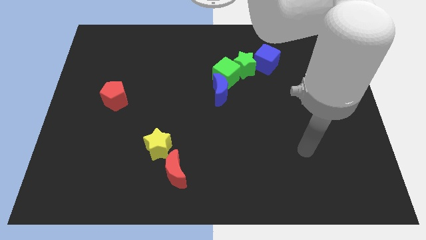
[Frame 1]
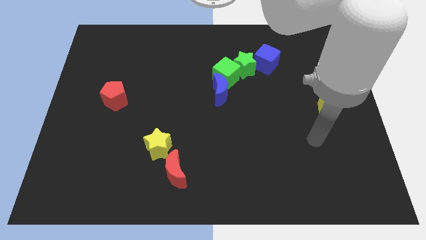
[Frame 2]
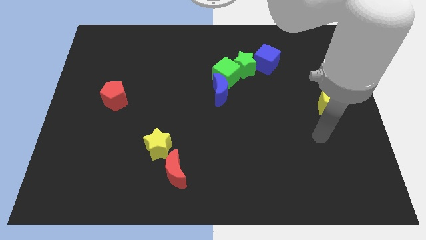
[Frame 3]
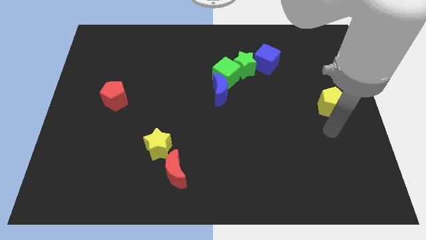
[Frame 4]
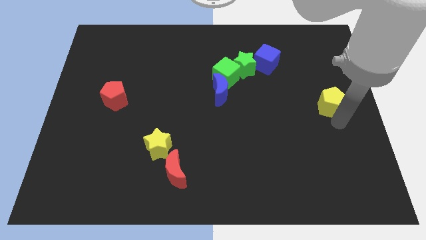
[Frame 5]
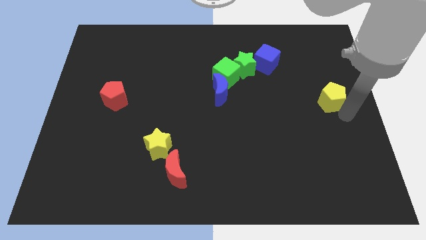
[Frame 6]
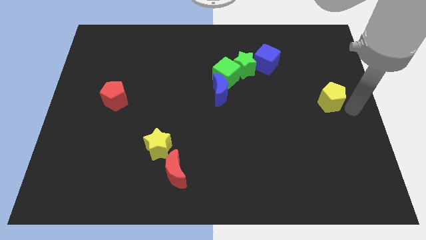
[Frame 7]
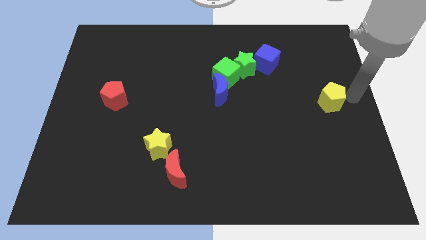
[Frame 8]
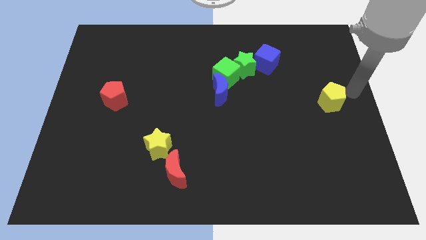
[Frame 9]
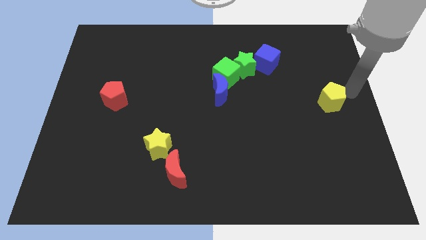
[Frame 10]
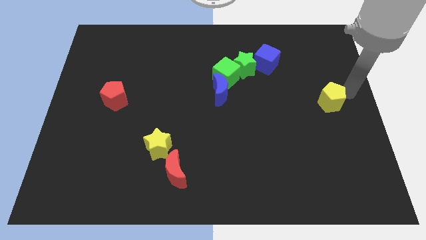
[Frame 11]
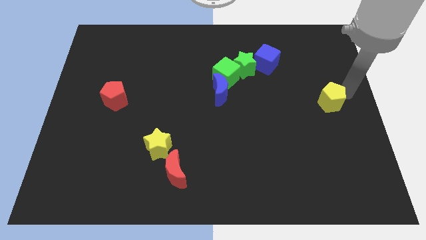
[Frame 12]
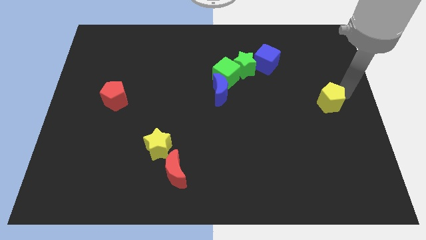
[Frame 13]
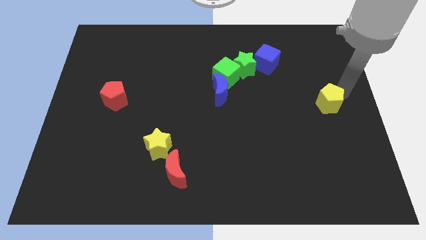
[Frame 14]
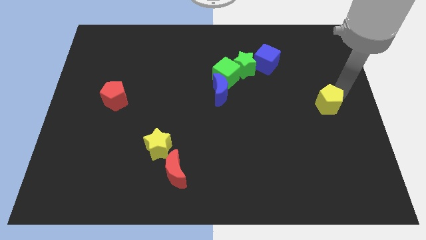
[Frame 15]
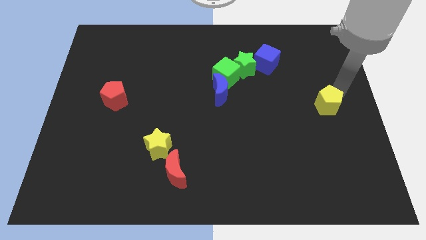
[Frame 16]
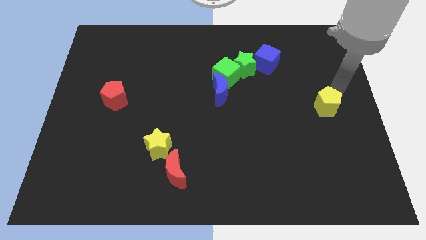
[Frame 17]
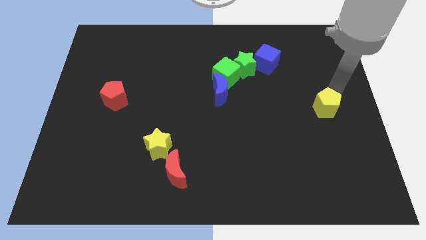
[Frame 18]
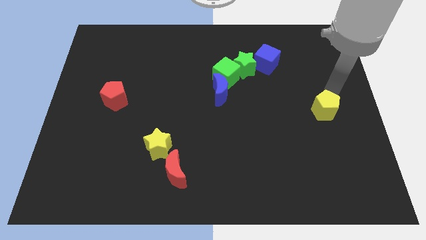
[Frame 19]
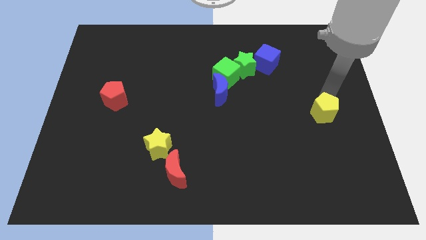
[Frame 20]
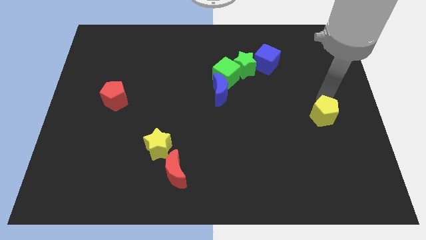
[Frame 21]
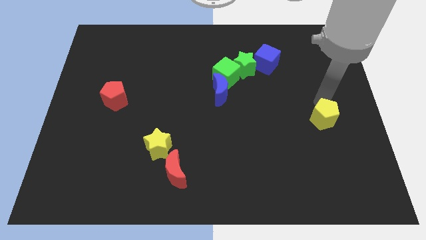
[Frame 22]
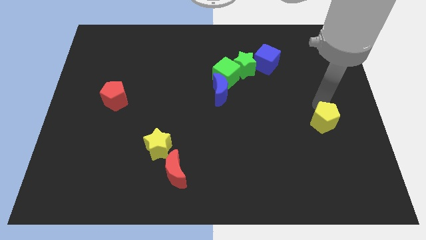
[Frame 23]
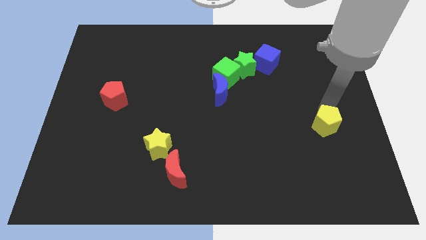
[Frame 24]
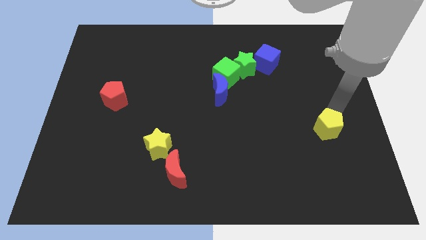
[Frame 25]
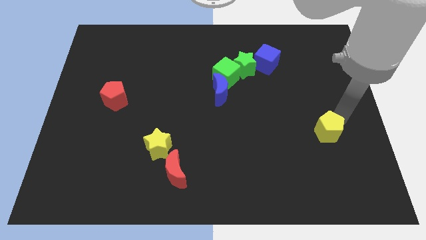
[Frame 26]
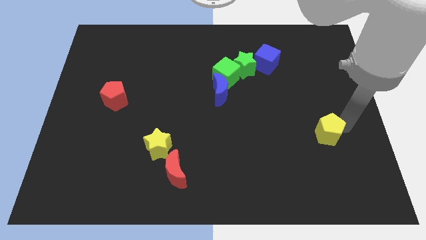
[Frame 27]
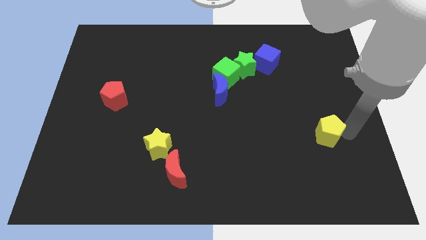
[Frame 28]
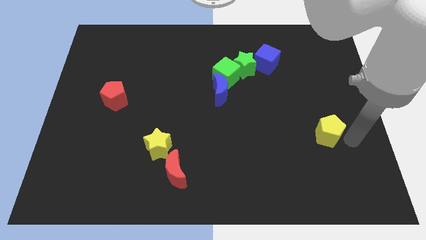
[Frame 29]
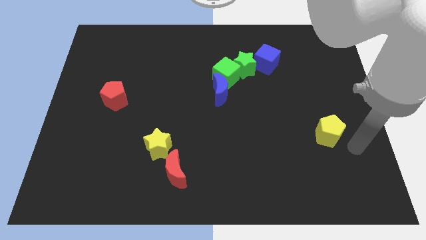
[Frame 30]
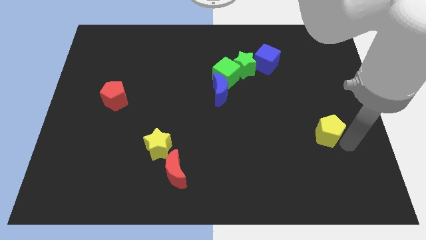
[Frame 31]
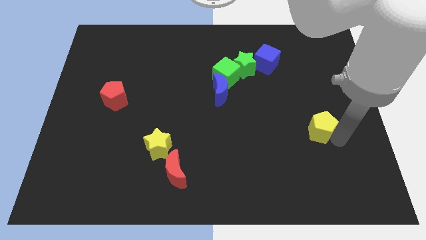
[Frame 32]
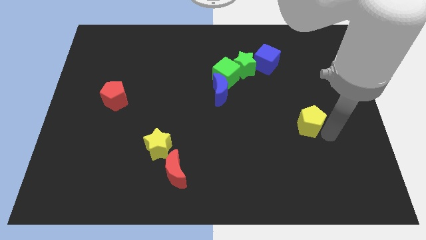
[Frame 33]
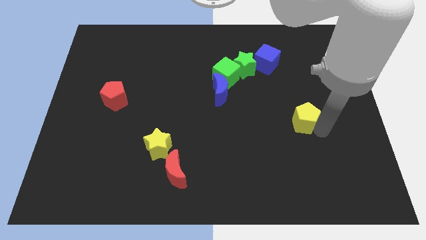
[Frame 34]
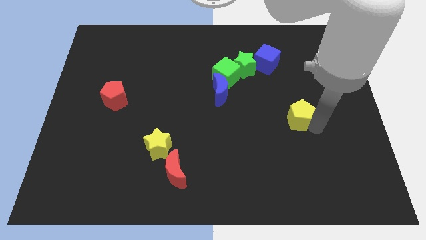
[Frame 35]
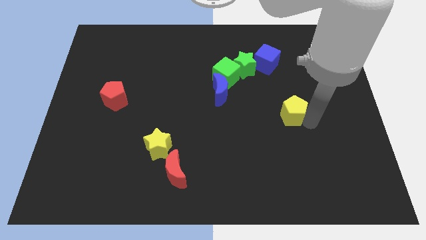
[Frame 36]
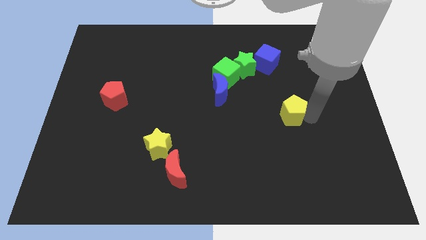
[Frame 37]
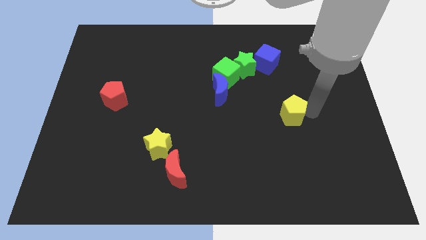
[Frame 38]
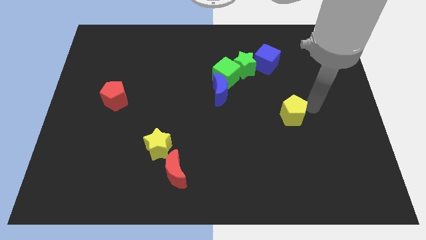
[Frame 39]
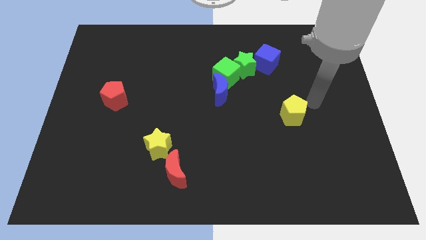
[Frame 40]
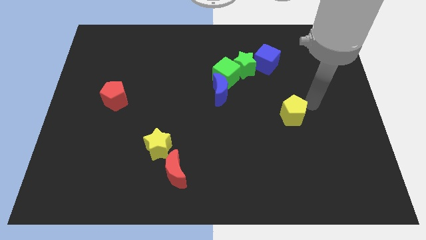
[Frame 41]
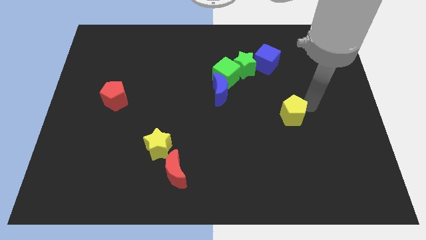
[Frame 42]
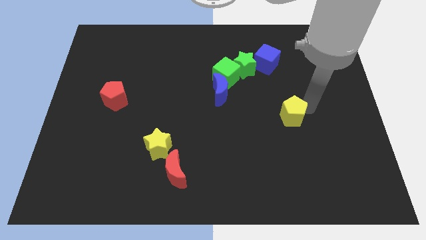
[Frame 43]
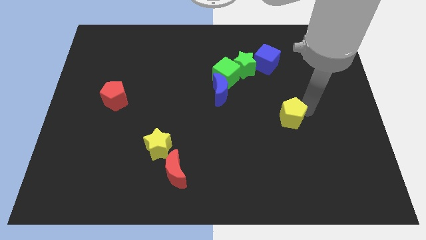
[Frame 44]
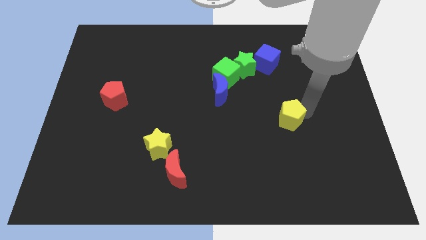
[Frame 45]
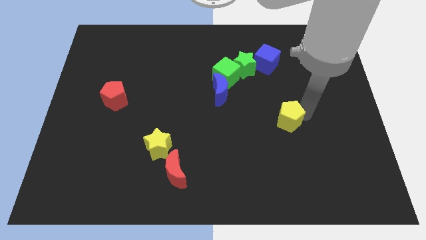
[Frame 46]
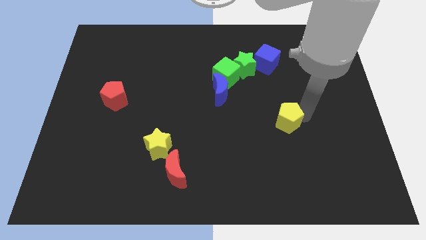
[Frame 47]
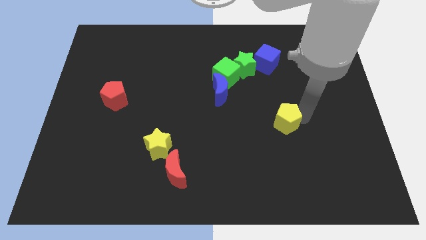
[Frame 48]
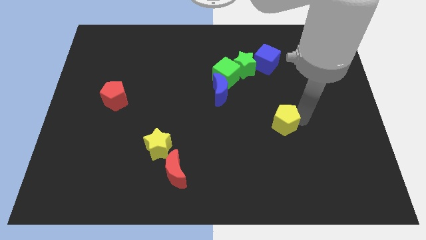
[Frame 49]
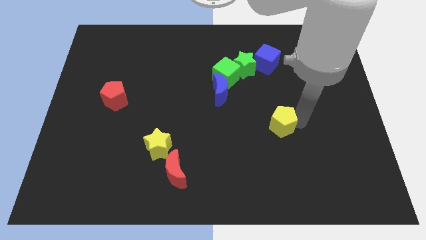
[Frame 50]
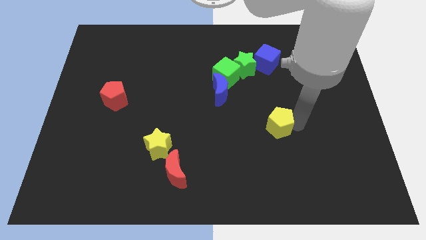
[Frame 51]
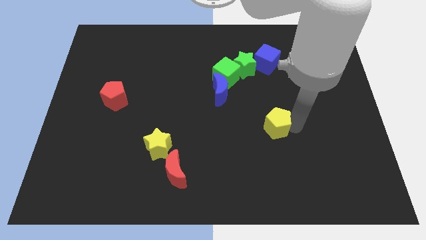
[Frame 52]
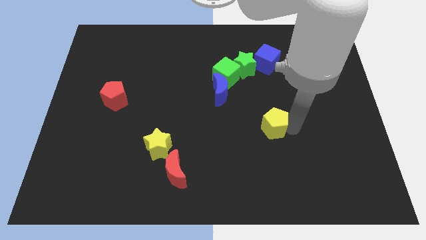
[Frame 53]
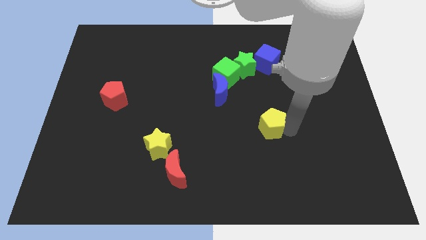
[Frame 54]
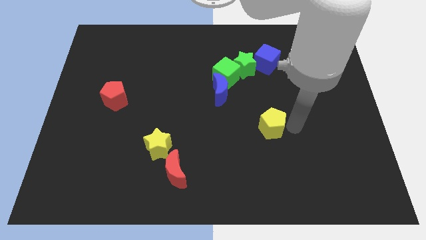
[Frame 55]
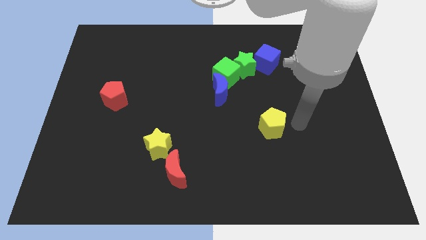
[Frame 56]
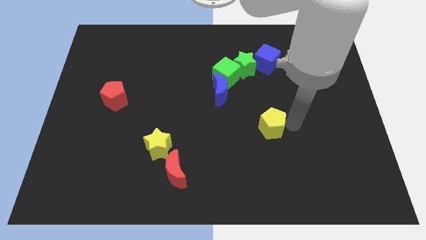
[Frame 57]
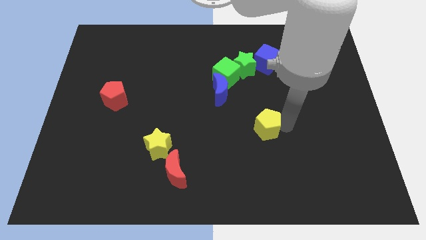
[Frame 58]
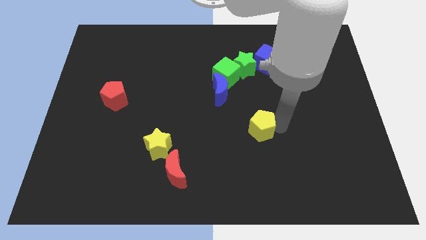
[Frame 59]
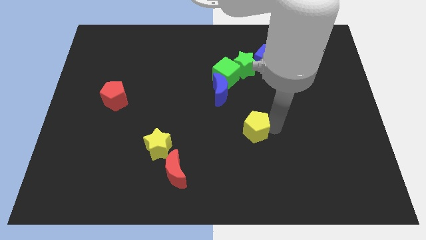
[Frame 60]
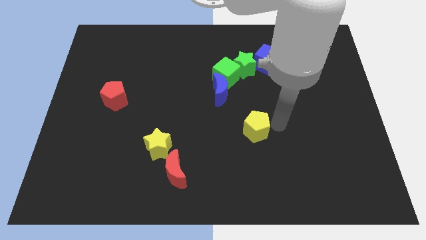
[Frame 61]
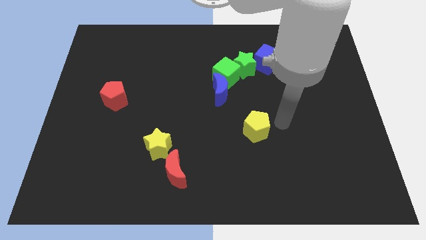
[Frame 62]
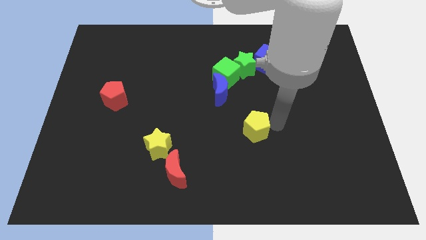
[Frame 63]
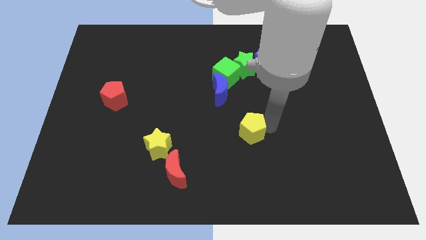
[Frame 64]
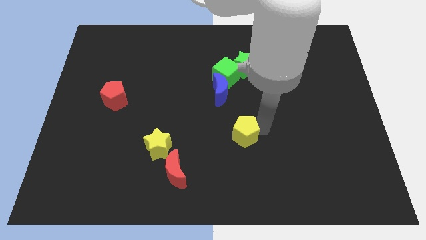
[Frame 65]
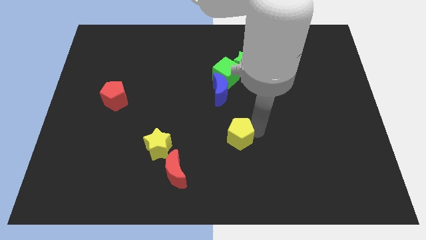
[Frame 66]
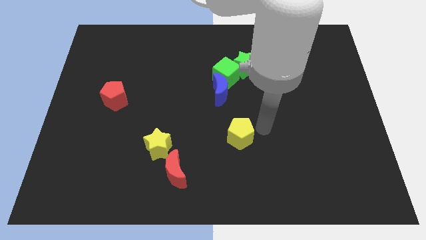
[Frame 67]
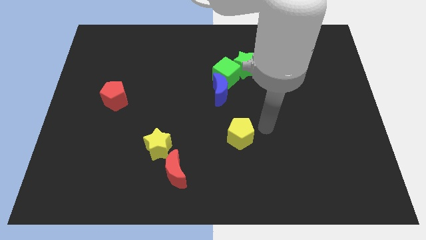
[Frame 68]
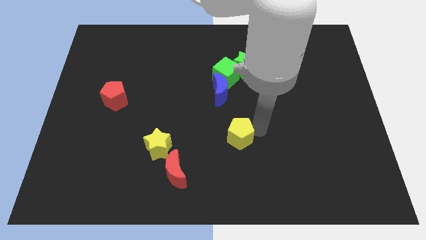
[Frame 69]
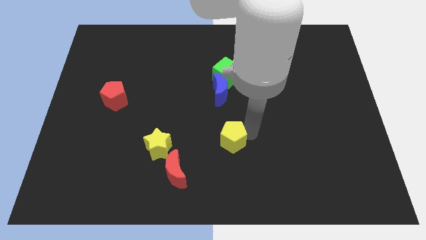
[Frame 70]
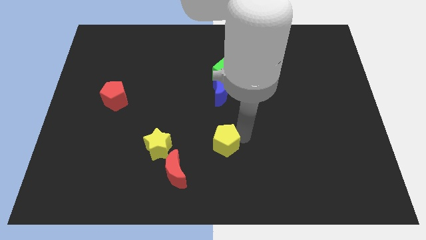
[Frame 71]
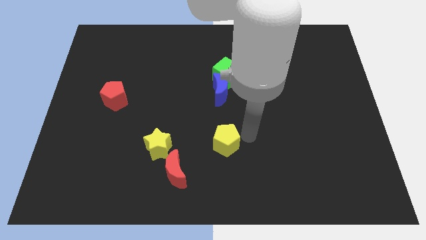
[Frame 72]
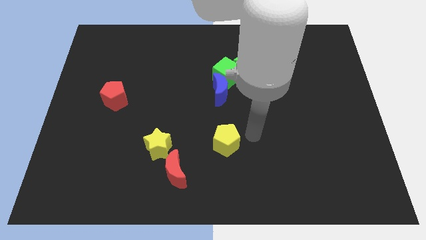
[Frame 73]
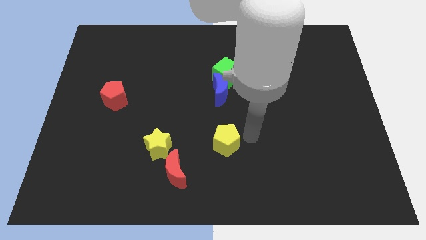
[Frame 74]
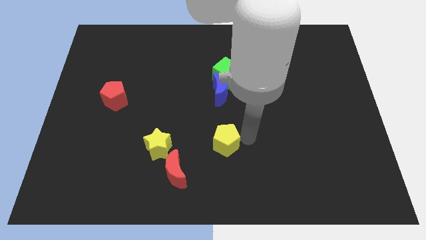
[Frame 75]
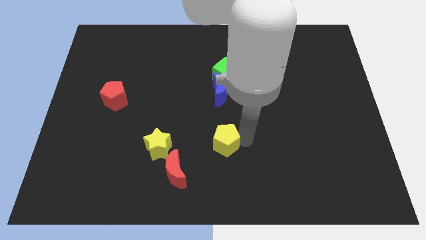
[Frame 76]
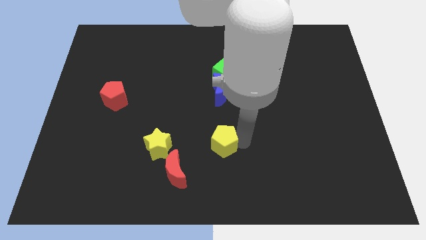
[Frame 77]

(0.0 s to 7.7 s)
put the yellow pentagon diagonally up and to the right of the red moon
